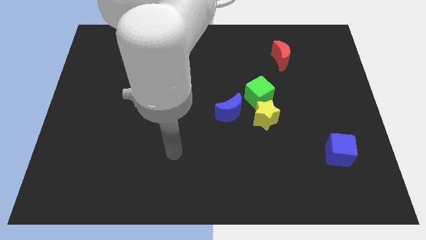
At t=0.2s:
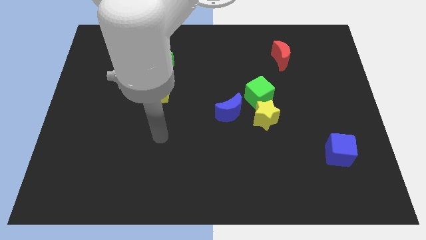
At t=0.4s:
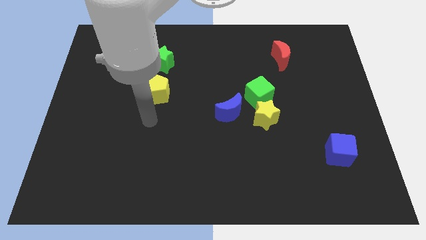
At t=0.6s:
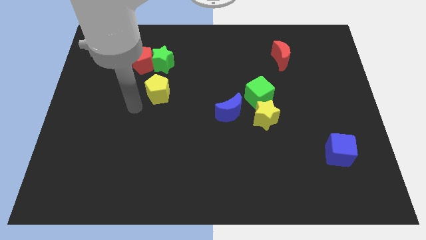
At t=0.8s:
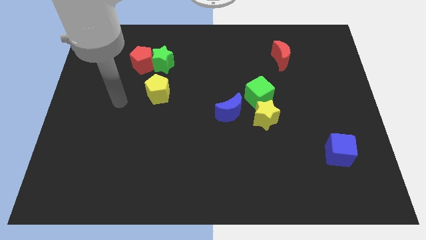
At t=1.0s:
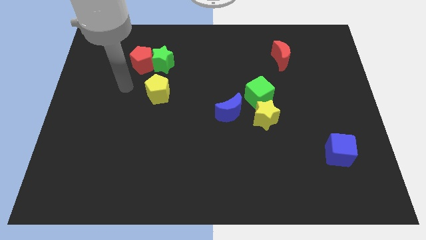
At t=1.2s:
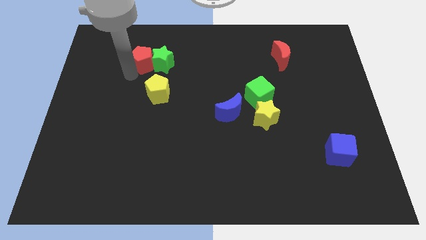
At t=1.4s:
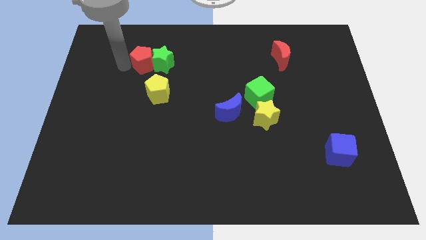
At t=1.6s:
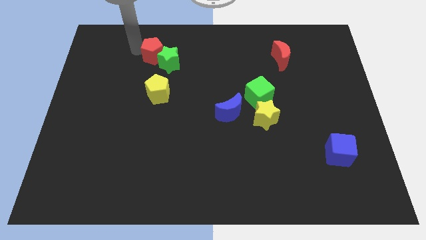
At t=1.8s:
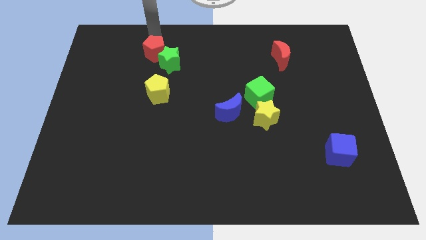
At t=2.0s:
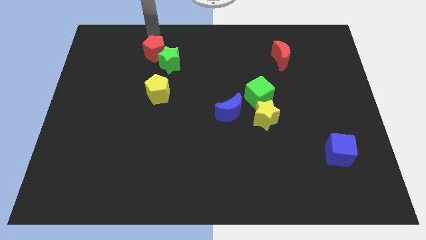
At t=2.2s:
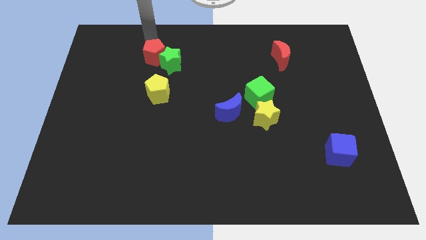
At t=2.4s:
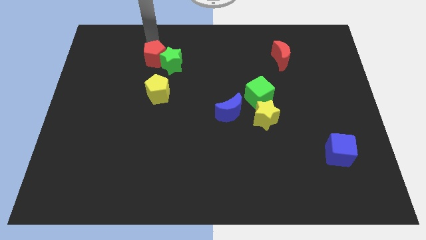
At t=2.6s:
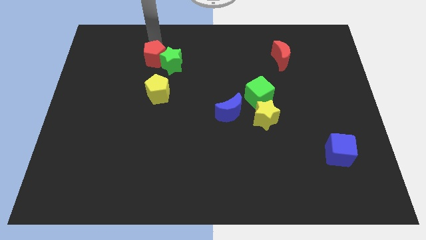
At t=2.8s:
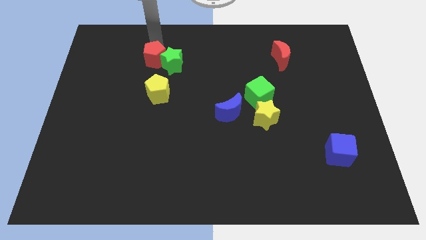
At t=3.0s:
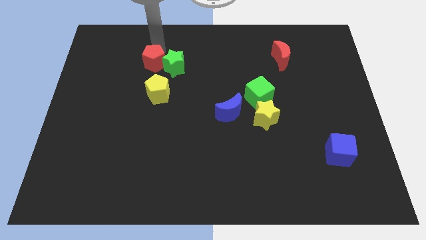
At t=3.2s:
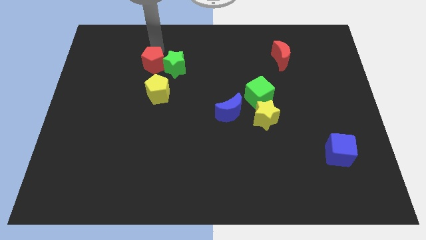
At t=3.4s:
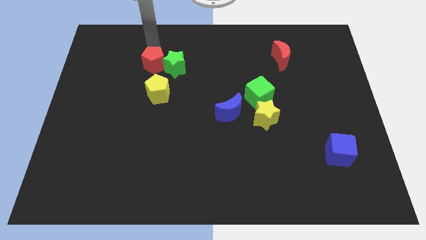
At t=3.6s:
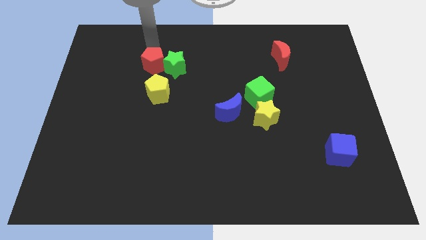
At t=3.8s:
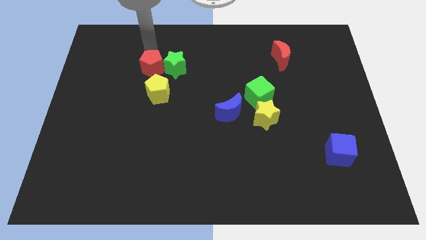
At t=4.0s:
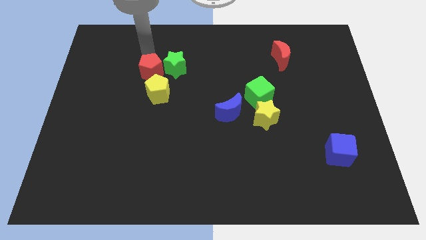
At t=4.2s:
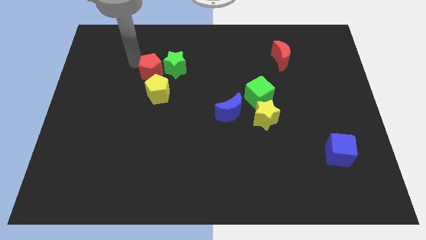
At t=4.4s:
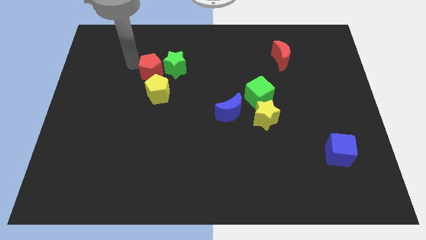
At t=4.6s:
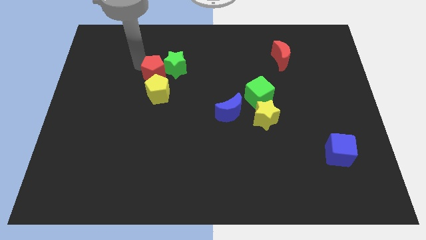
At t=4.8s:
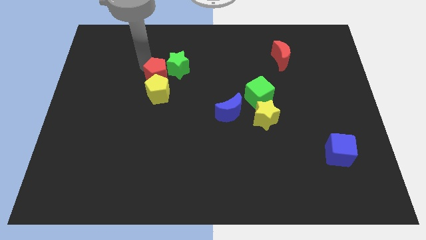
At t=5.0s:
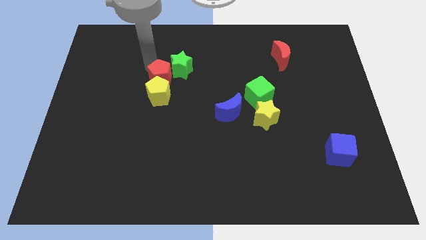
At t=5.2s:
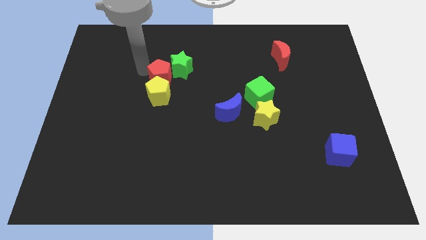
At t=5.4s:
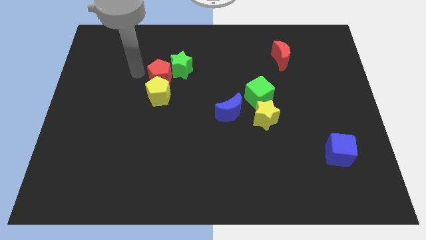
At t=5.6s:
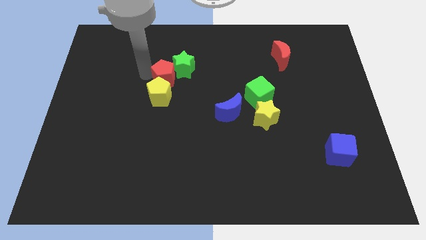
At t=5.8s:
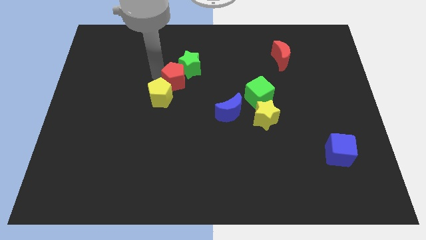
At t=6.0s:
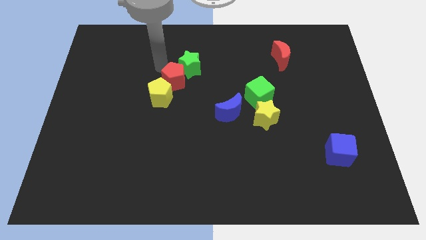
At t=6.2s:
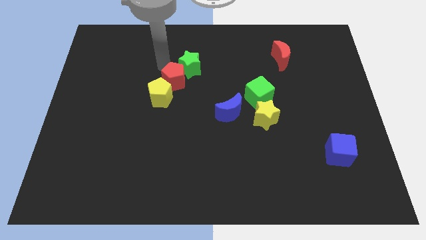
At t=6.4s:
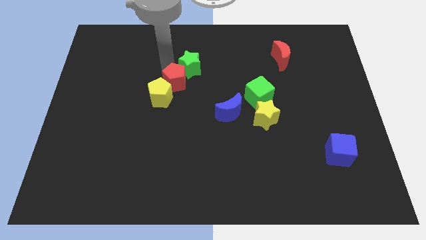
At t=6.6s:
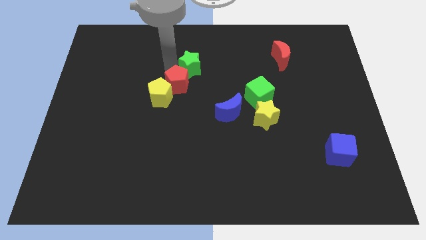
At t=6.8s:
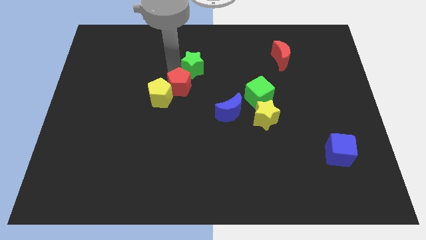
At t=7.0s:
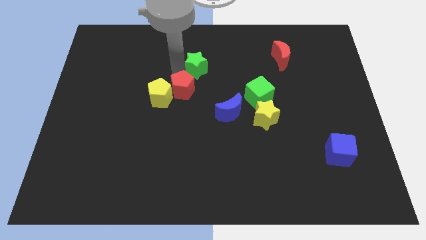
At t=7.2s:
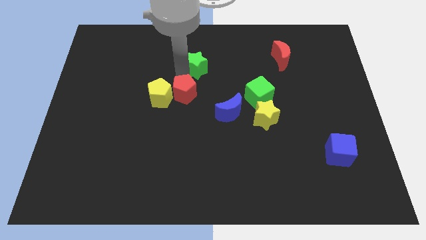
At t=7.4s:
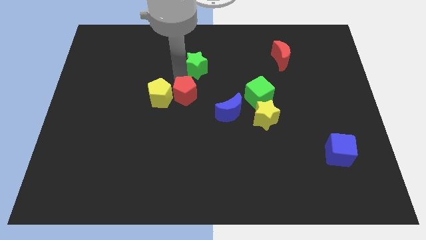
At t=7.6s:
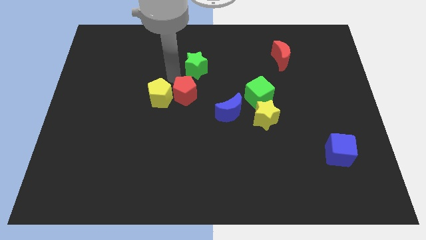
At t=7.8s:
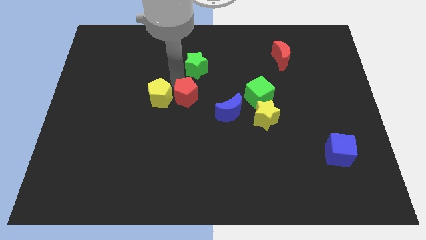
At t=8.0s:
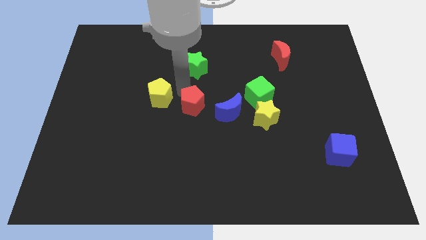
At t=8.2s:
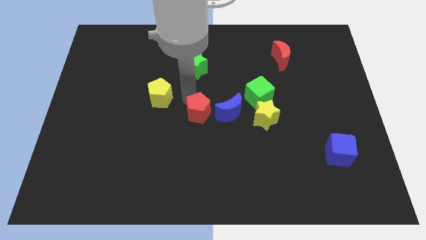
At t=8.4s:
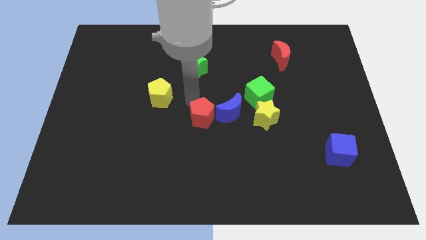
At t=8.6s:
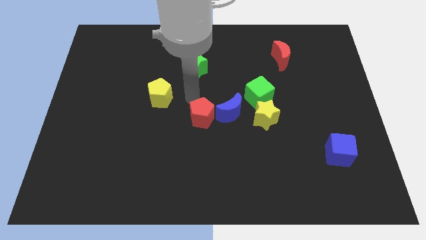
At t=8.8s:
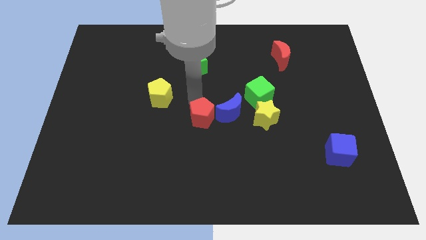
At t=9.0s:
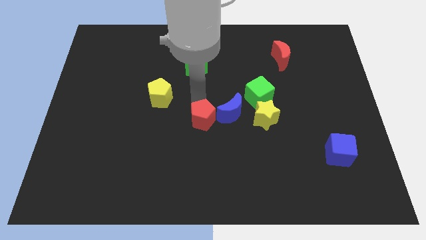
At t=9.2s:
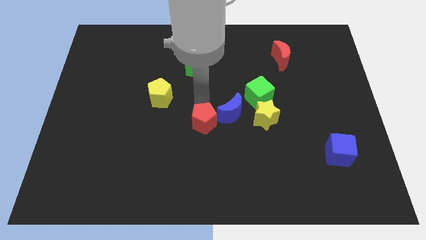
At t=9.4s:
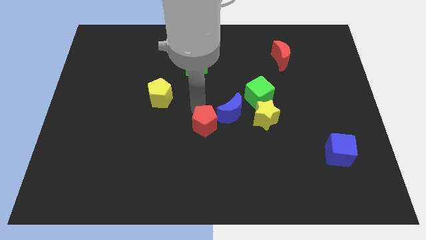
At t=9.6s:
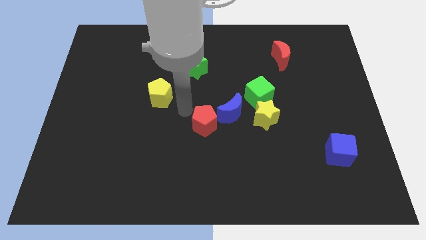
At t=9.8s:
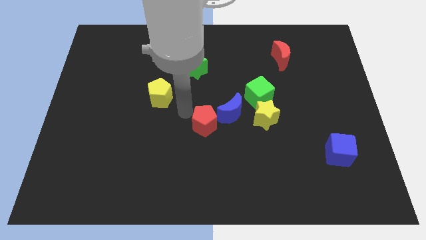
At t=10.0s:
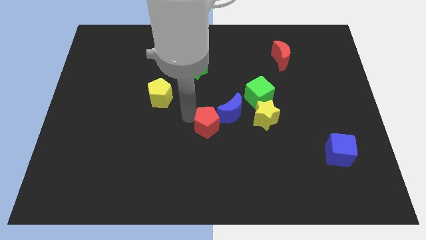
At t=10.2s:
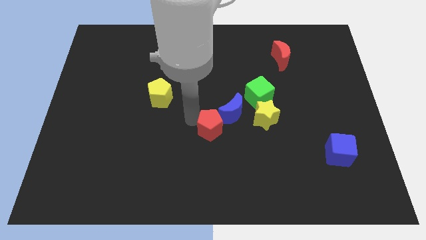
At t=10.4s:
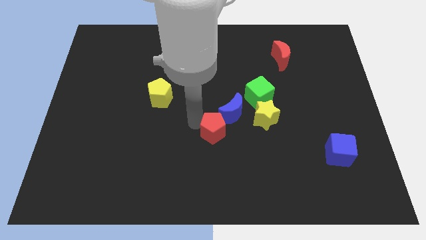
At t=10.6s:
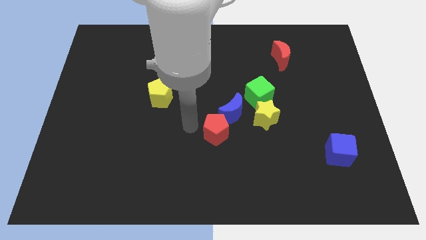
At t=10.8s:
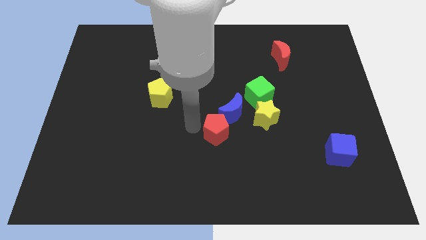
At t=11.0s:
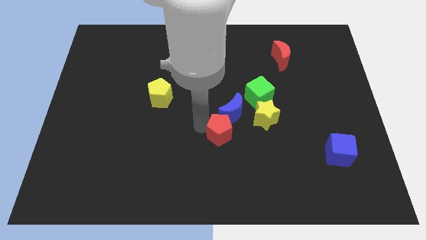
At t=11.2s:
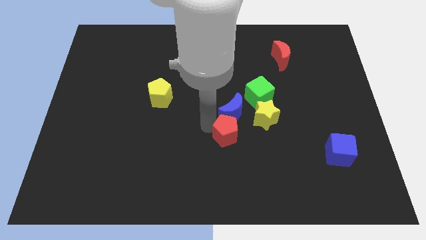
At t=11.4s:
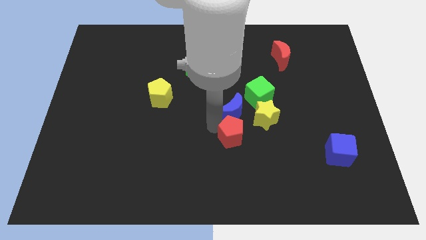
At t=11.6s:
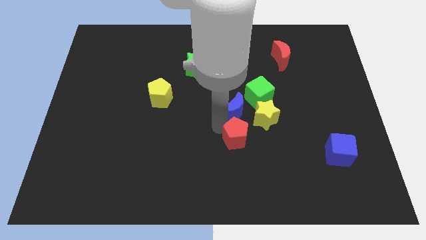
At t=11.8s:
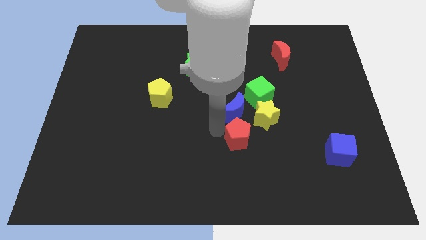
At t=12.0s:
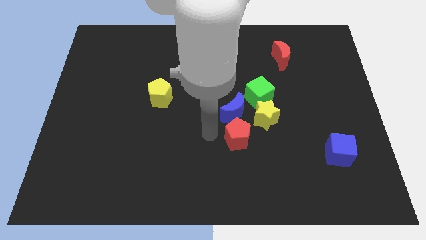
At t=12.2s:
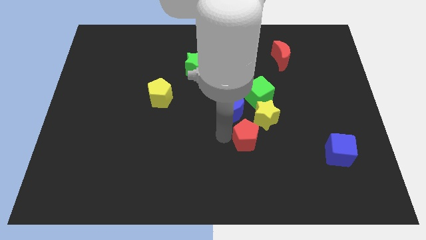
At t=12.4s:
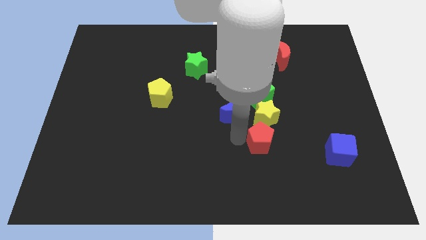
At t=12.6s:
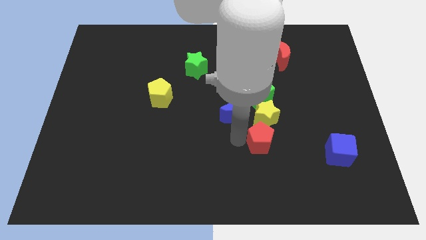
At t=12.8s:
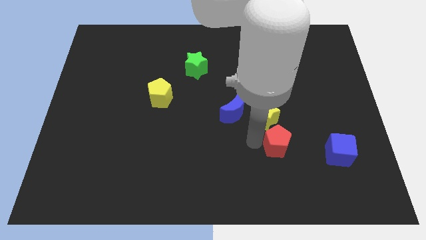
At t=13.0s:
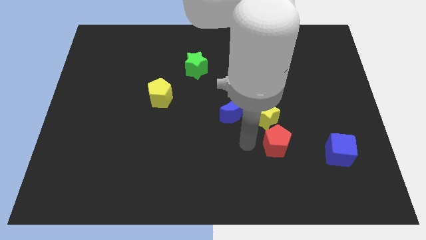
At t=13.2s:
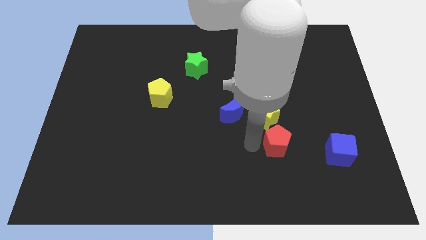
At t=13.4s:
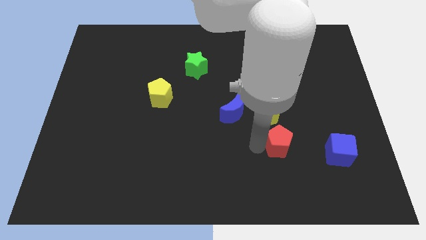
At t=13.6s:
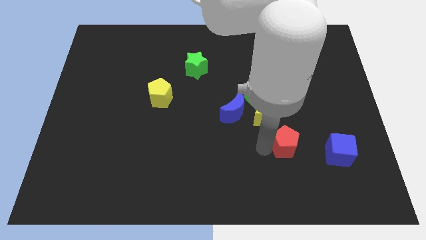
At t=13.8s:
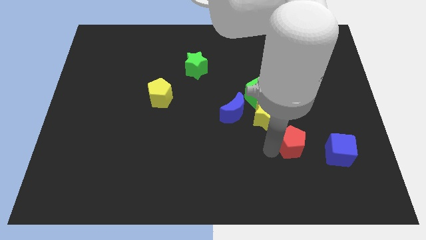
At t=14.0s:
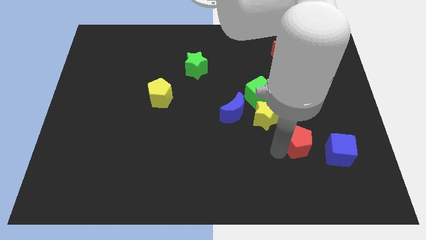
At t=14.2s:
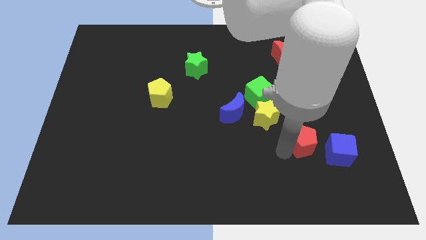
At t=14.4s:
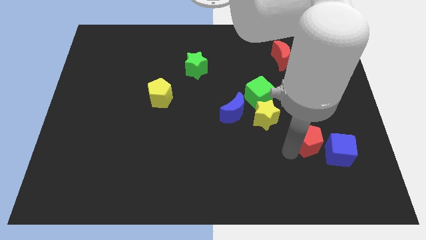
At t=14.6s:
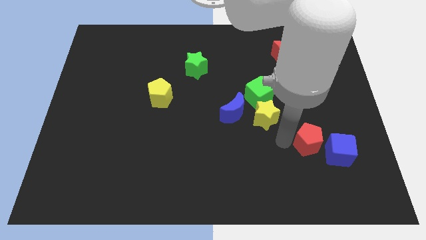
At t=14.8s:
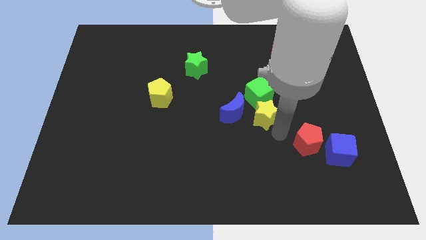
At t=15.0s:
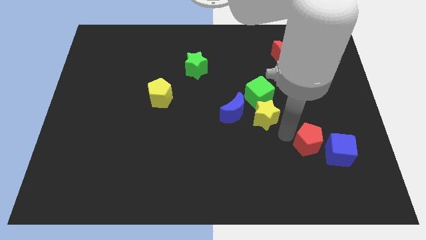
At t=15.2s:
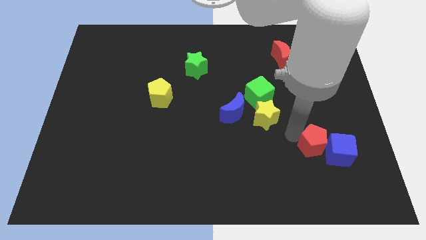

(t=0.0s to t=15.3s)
put the red pentagon towards the blue cube
